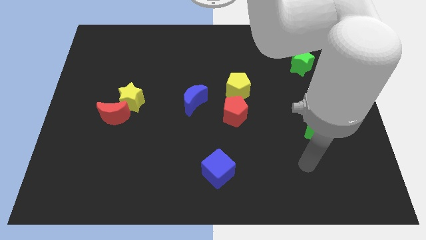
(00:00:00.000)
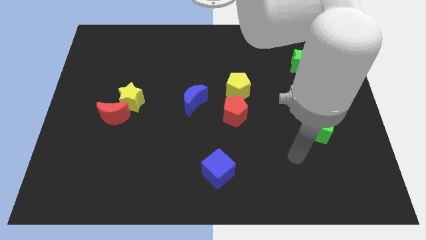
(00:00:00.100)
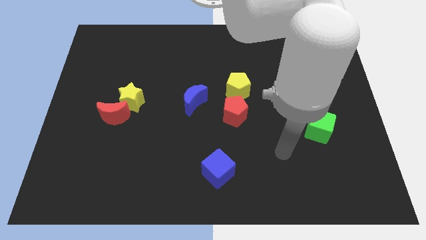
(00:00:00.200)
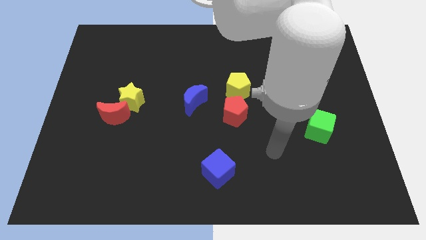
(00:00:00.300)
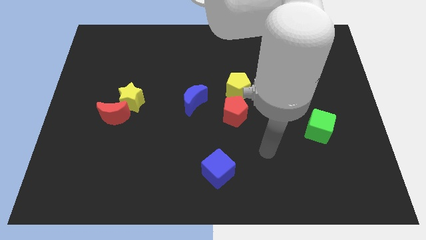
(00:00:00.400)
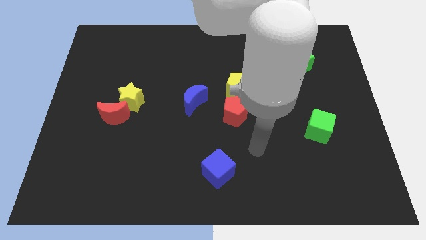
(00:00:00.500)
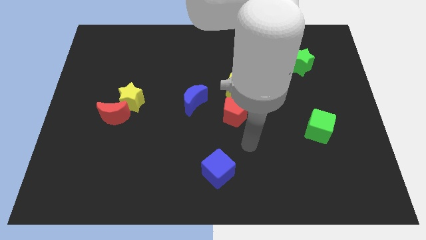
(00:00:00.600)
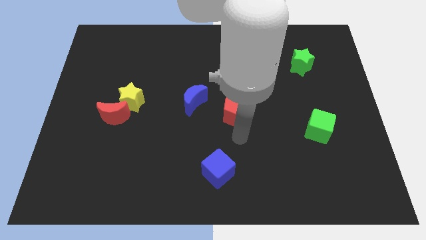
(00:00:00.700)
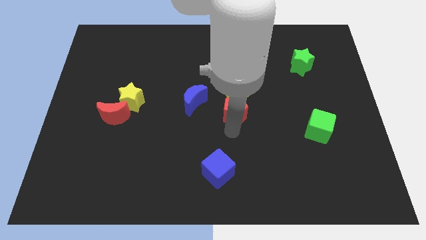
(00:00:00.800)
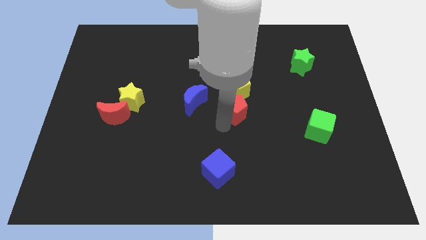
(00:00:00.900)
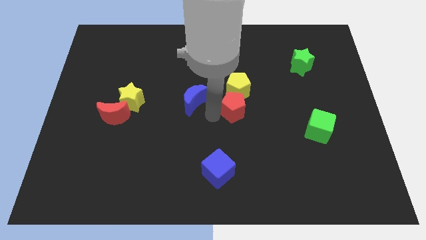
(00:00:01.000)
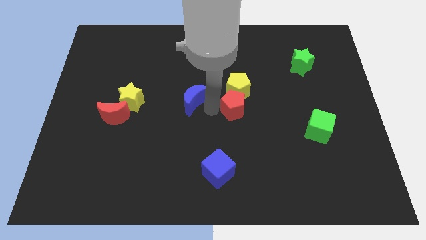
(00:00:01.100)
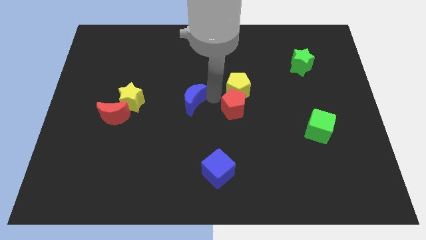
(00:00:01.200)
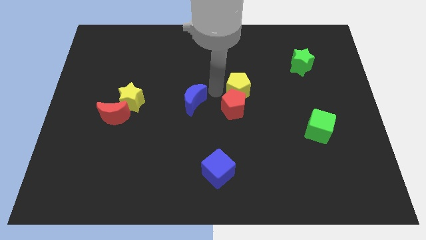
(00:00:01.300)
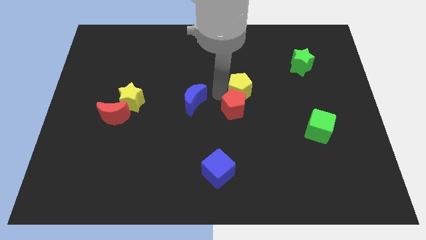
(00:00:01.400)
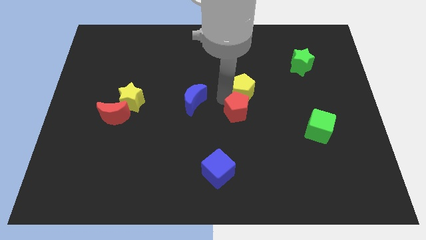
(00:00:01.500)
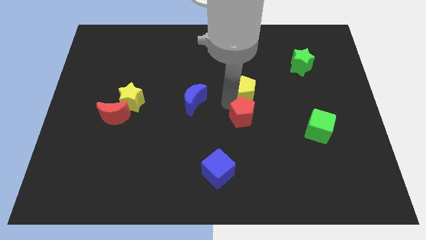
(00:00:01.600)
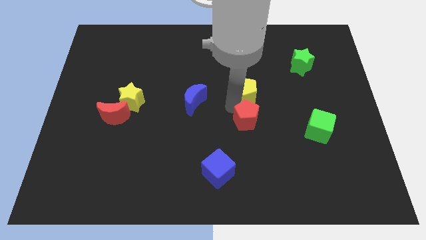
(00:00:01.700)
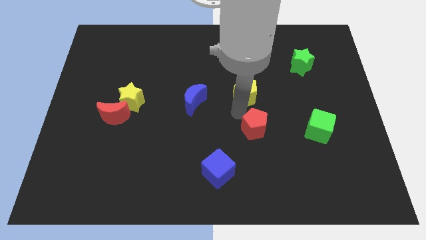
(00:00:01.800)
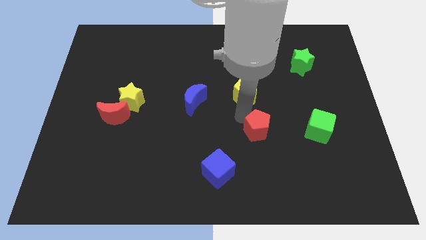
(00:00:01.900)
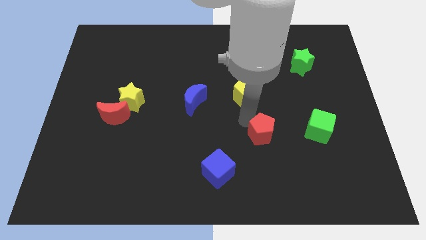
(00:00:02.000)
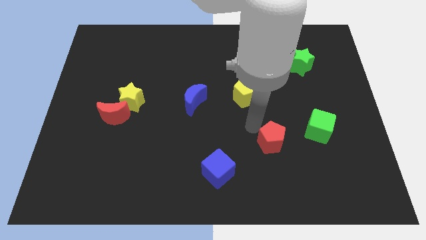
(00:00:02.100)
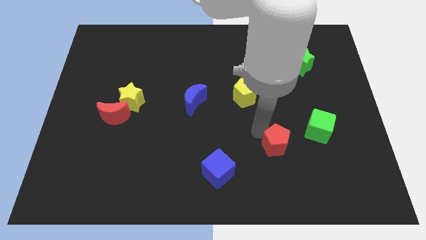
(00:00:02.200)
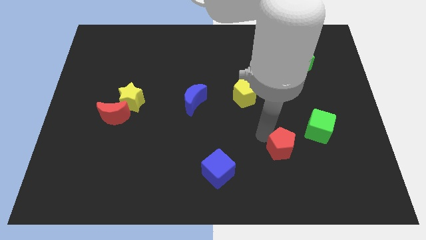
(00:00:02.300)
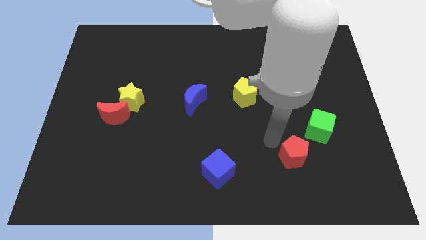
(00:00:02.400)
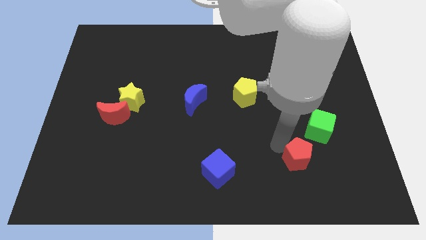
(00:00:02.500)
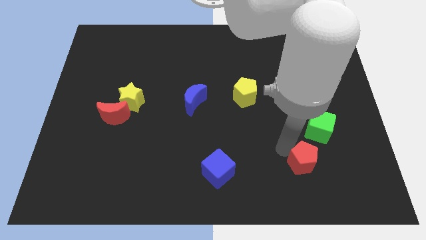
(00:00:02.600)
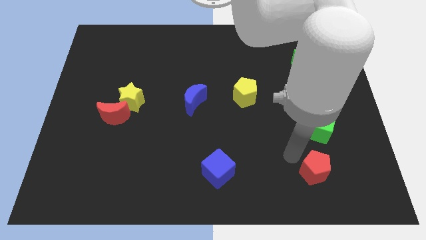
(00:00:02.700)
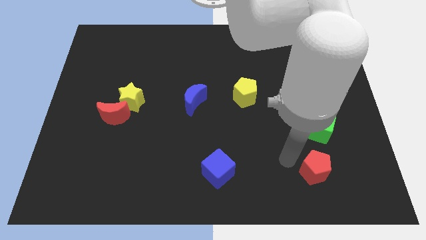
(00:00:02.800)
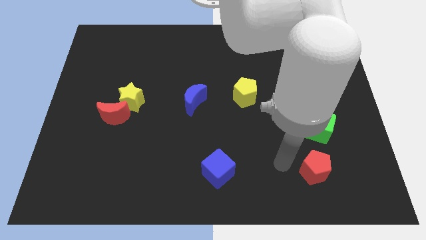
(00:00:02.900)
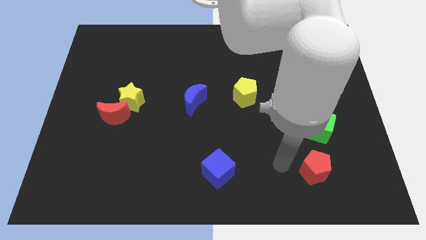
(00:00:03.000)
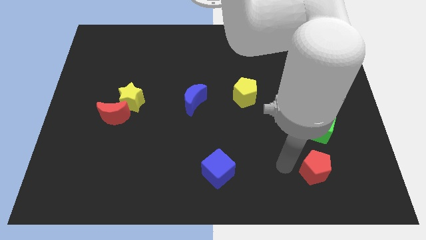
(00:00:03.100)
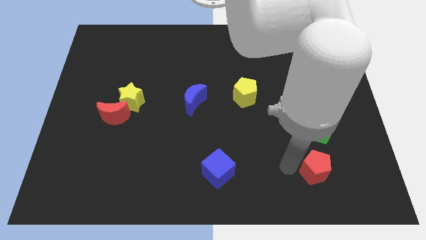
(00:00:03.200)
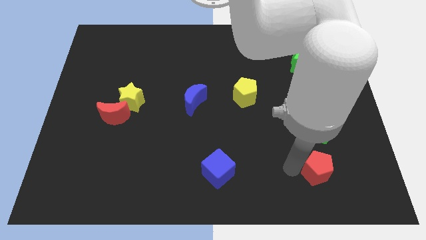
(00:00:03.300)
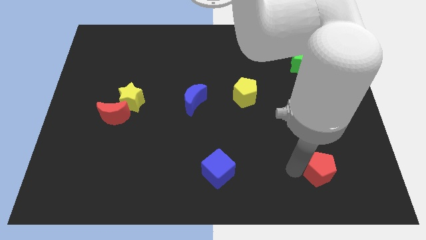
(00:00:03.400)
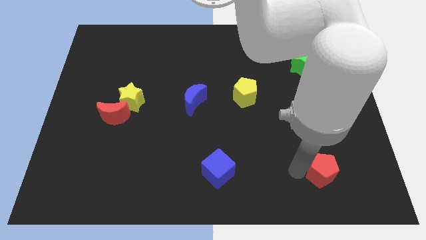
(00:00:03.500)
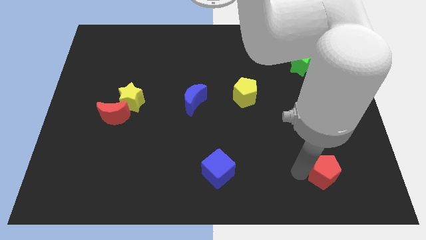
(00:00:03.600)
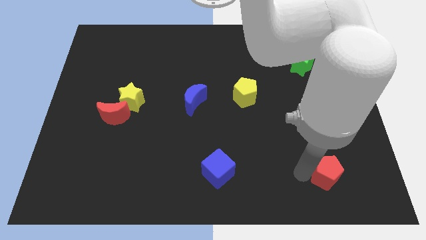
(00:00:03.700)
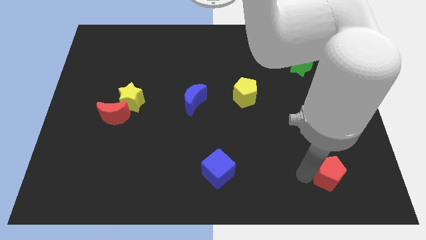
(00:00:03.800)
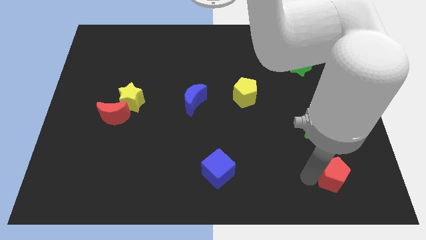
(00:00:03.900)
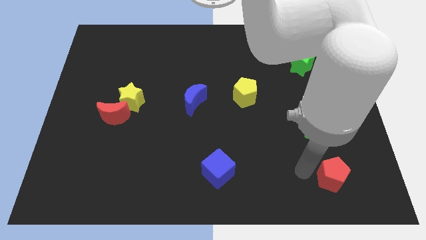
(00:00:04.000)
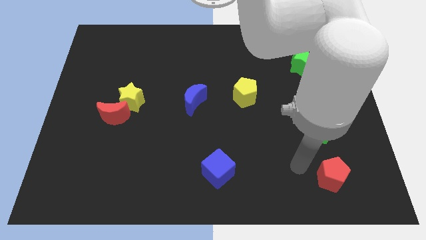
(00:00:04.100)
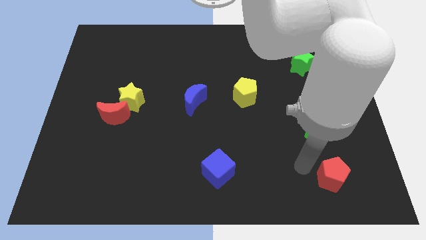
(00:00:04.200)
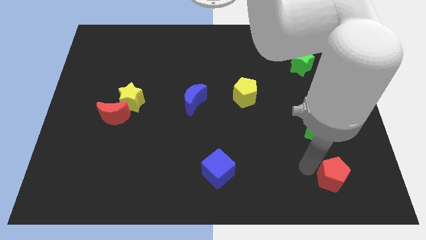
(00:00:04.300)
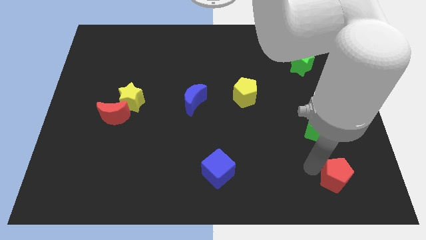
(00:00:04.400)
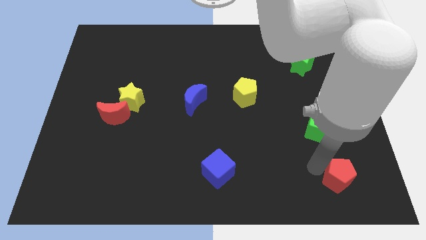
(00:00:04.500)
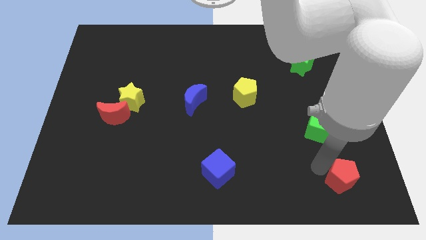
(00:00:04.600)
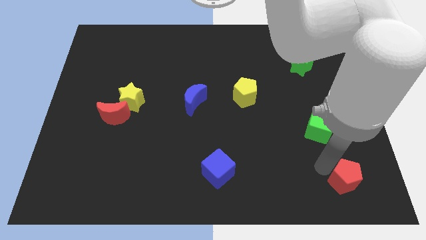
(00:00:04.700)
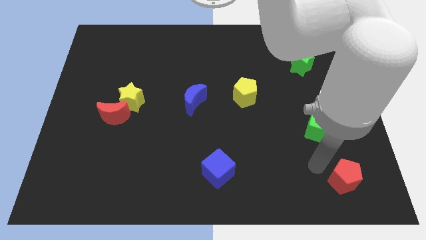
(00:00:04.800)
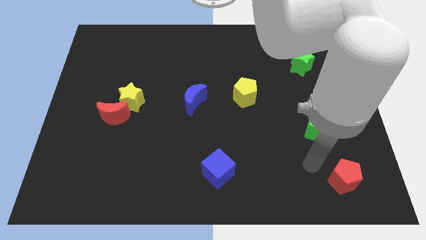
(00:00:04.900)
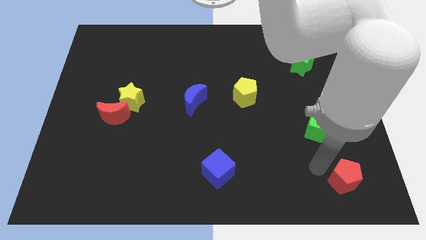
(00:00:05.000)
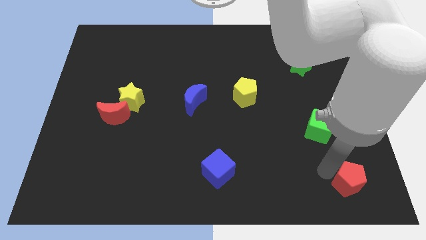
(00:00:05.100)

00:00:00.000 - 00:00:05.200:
move the red pentagon to the bottom right corner

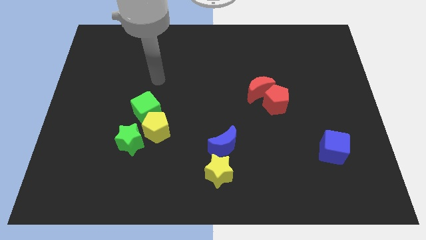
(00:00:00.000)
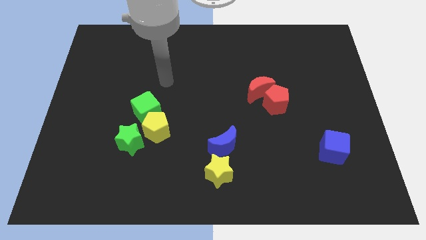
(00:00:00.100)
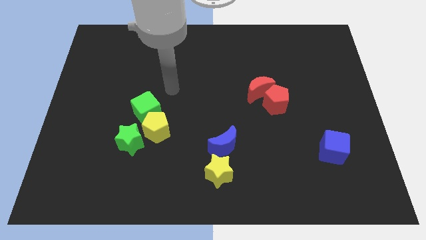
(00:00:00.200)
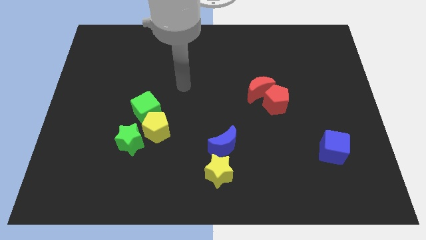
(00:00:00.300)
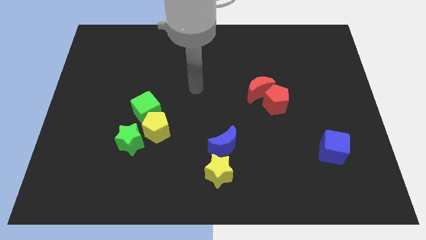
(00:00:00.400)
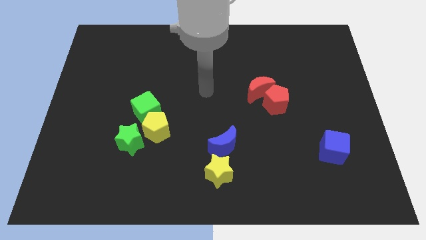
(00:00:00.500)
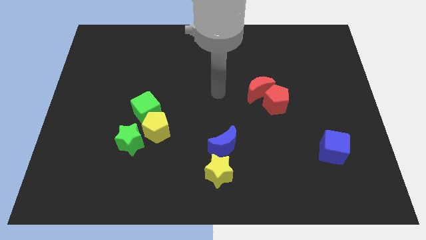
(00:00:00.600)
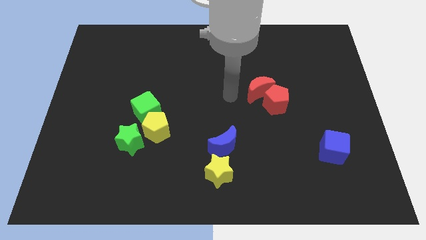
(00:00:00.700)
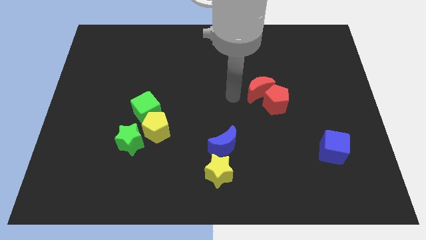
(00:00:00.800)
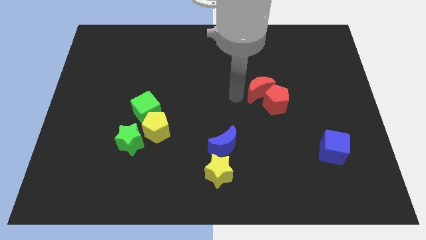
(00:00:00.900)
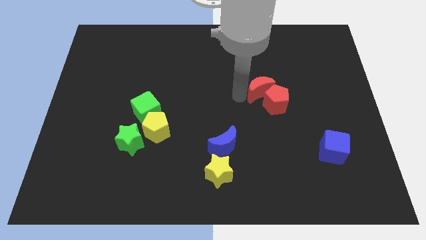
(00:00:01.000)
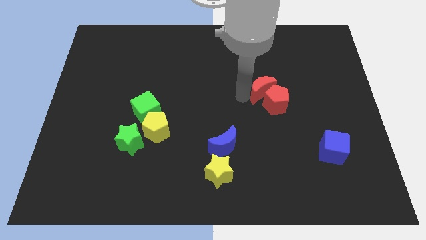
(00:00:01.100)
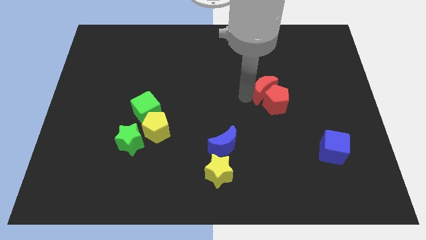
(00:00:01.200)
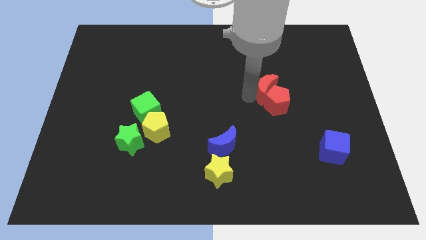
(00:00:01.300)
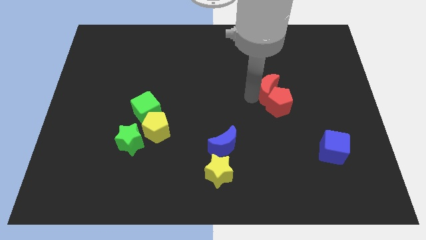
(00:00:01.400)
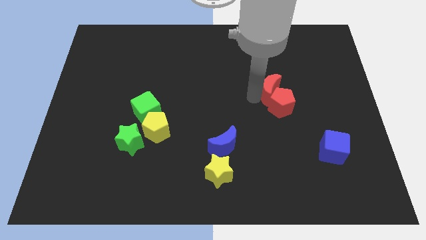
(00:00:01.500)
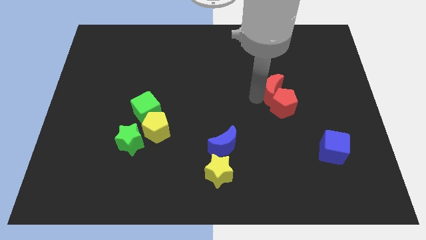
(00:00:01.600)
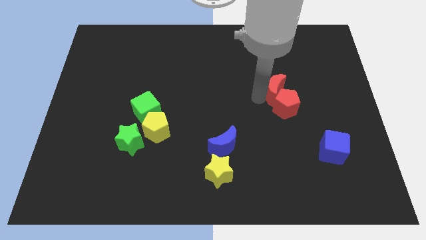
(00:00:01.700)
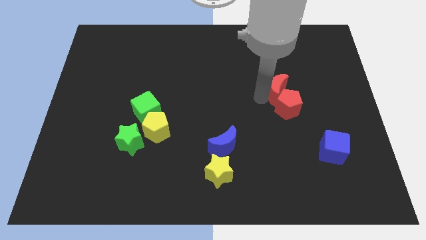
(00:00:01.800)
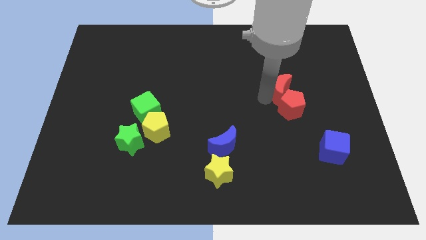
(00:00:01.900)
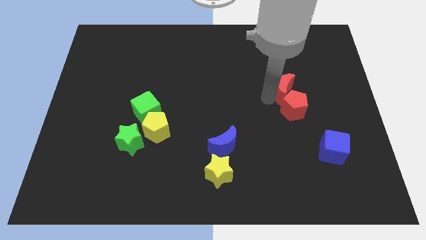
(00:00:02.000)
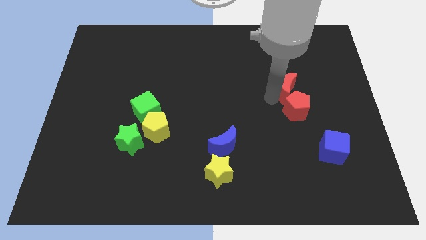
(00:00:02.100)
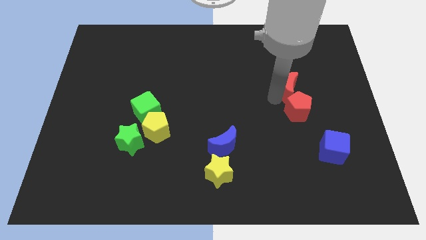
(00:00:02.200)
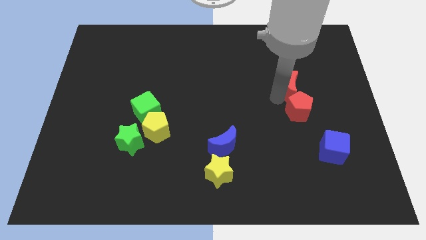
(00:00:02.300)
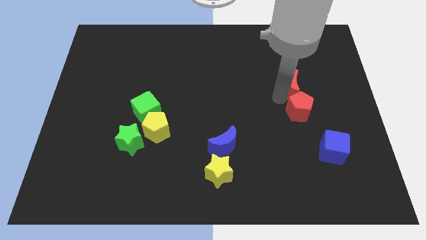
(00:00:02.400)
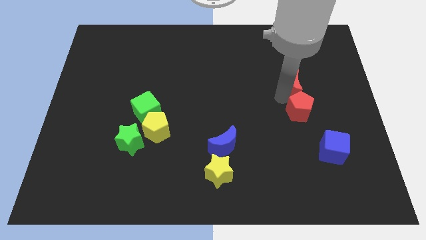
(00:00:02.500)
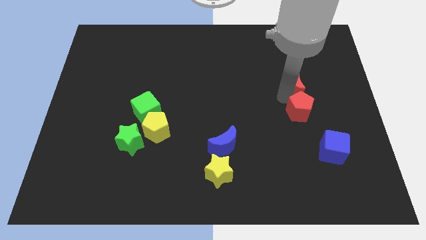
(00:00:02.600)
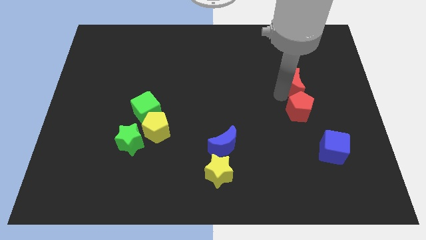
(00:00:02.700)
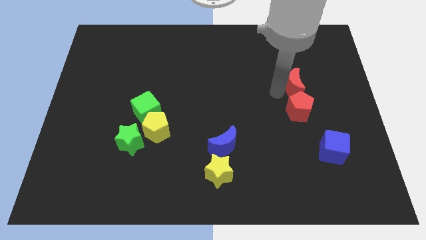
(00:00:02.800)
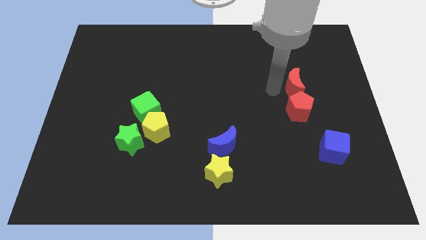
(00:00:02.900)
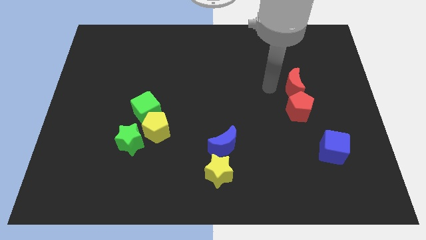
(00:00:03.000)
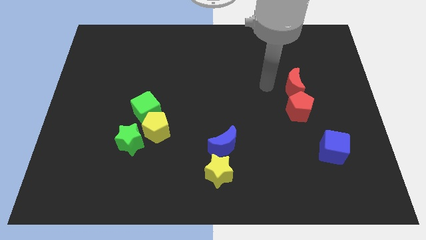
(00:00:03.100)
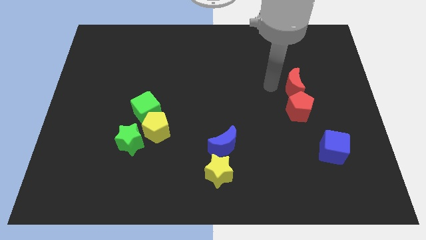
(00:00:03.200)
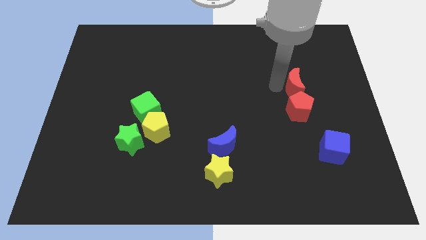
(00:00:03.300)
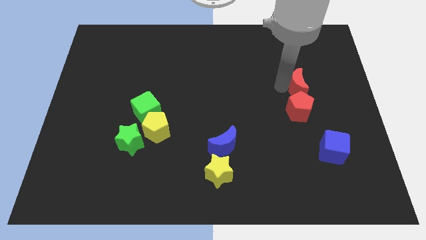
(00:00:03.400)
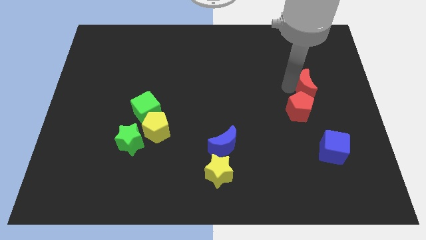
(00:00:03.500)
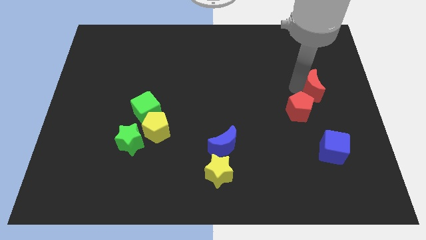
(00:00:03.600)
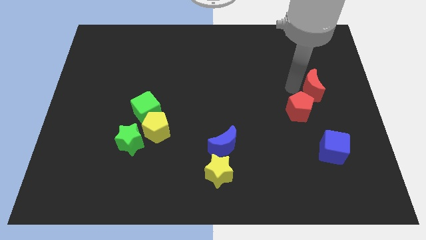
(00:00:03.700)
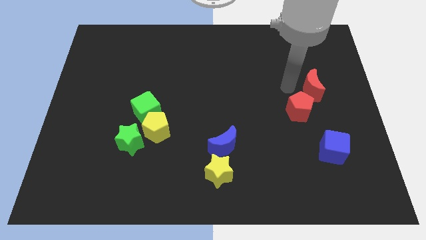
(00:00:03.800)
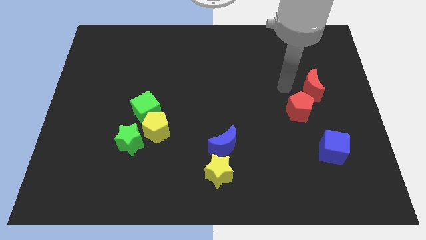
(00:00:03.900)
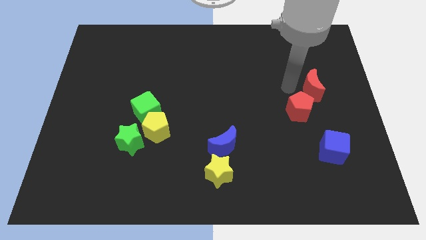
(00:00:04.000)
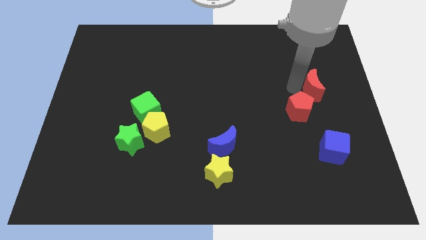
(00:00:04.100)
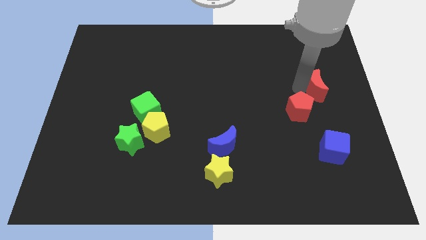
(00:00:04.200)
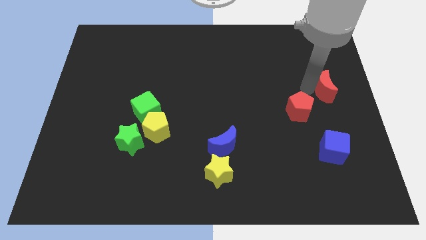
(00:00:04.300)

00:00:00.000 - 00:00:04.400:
put the red moon to the right side of the board
